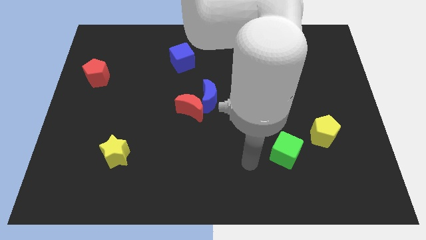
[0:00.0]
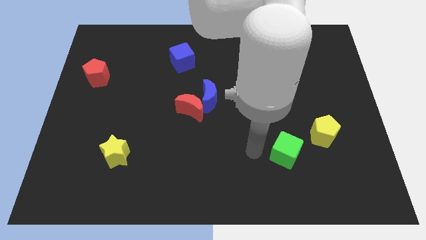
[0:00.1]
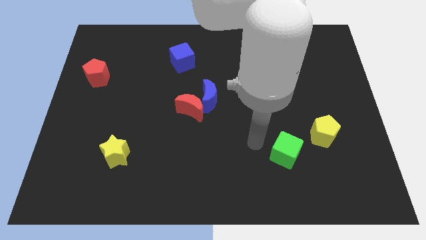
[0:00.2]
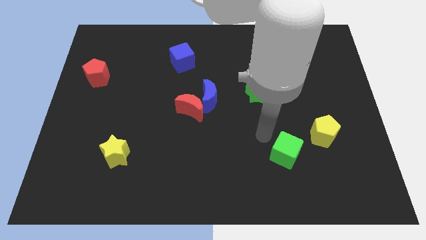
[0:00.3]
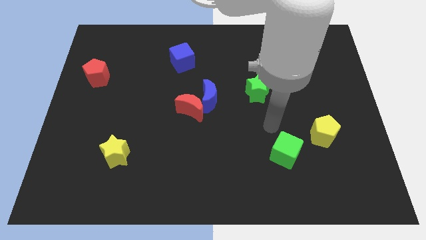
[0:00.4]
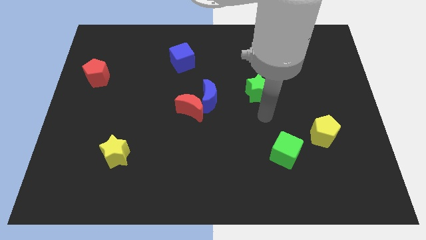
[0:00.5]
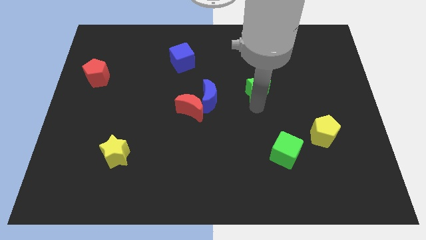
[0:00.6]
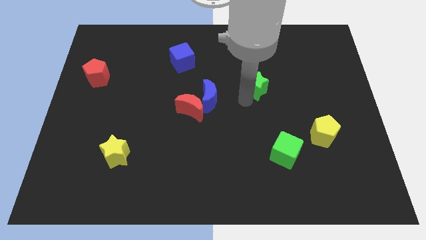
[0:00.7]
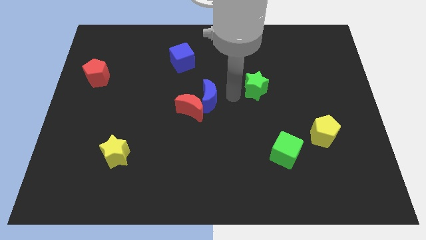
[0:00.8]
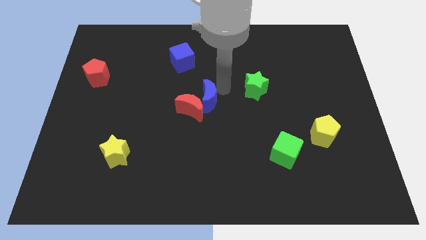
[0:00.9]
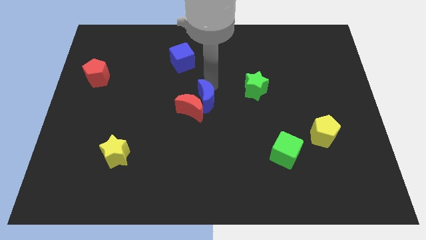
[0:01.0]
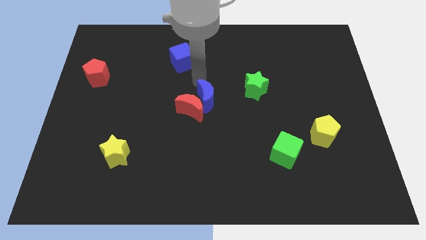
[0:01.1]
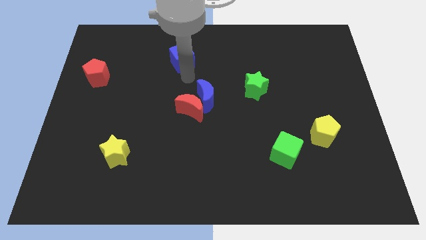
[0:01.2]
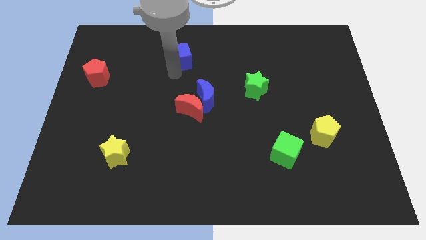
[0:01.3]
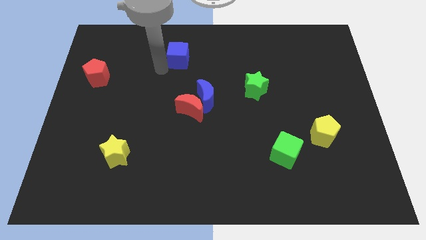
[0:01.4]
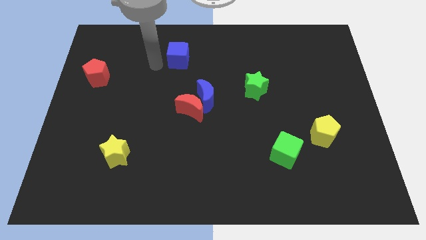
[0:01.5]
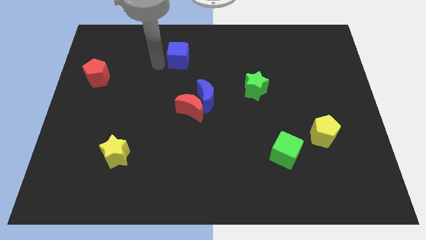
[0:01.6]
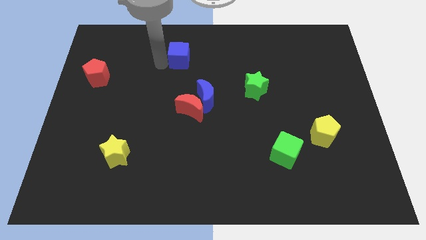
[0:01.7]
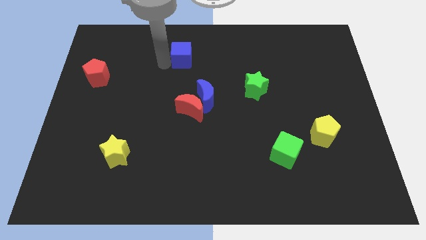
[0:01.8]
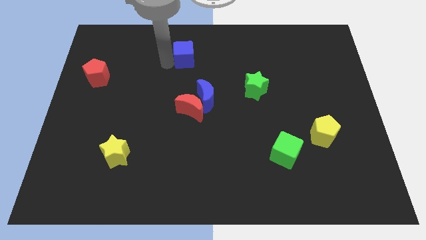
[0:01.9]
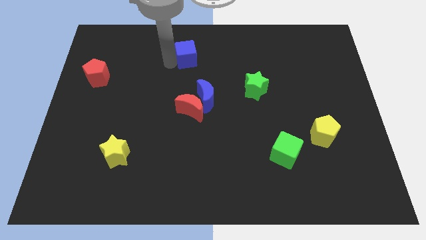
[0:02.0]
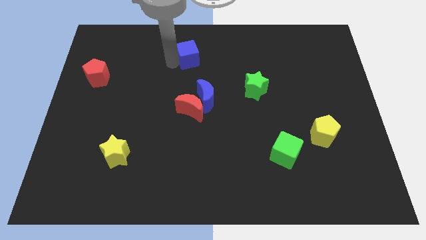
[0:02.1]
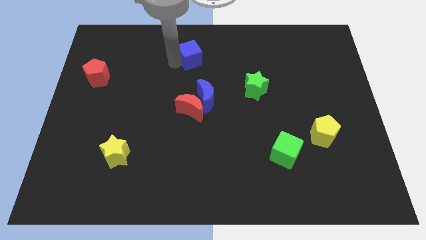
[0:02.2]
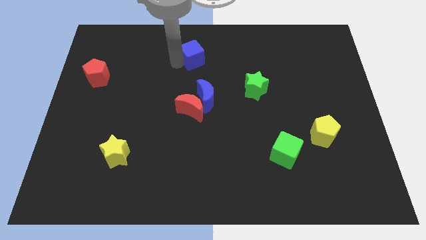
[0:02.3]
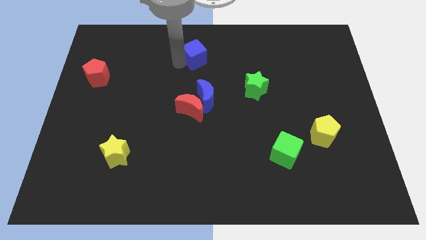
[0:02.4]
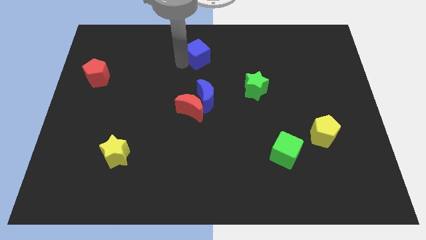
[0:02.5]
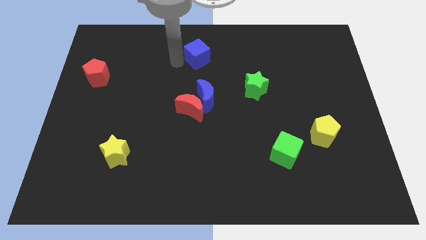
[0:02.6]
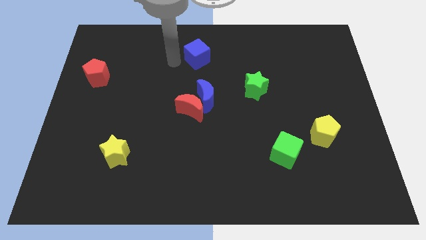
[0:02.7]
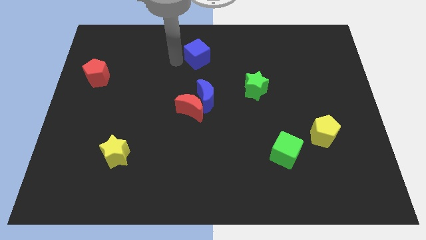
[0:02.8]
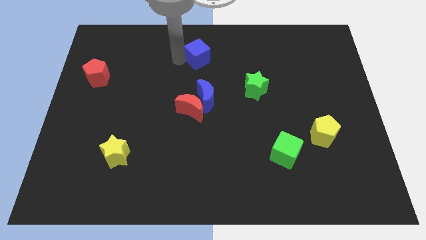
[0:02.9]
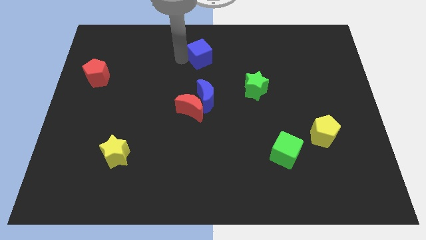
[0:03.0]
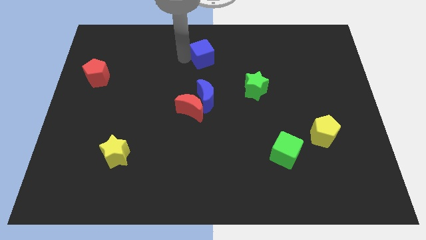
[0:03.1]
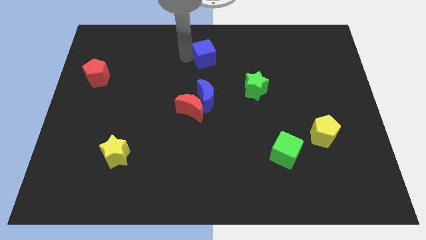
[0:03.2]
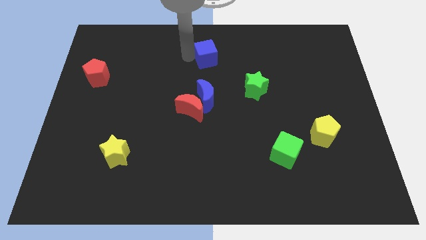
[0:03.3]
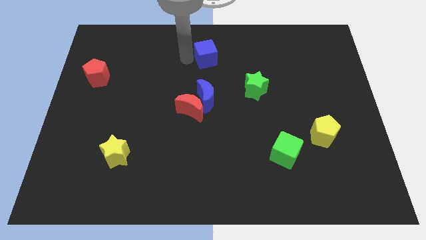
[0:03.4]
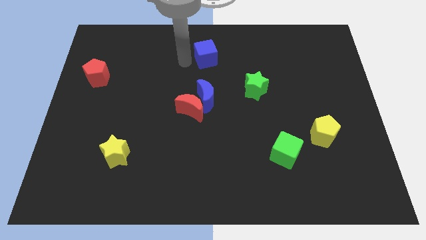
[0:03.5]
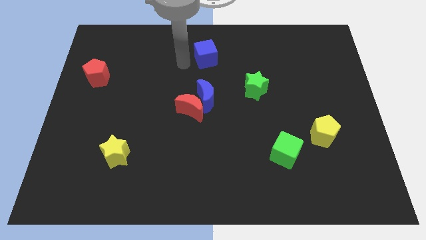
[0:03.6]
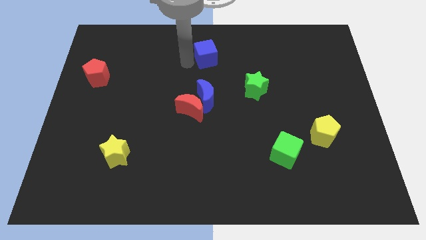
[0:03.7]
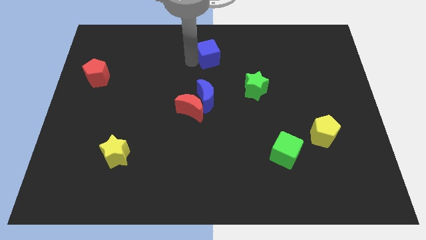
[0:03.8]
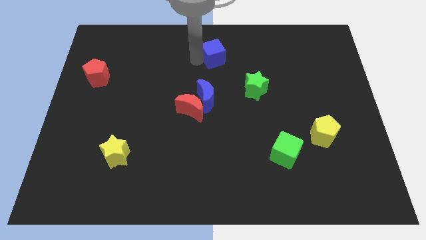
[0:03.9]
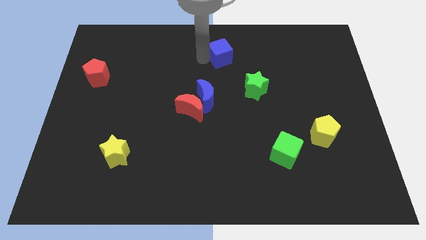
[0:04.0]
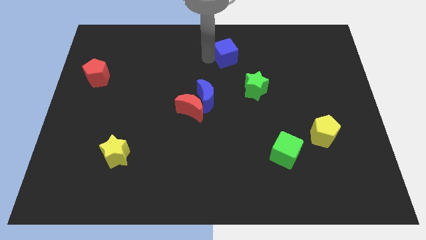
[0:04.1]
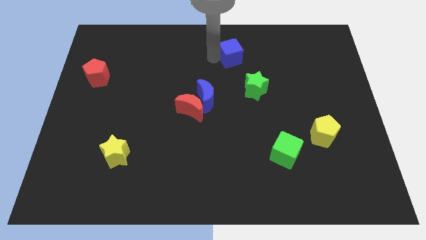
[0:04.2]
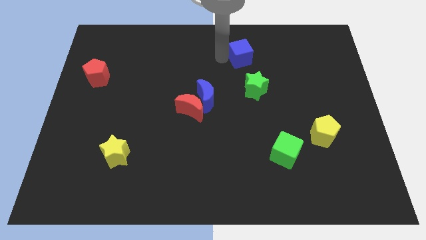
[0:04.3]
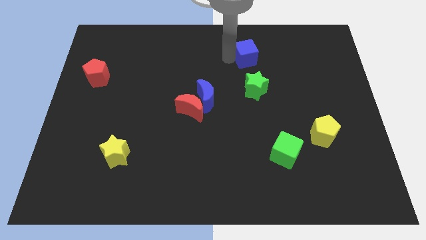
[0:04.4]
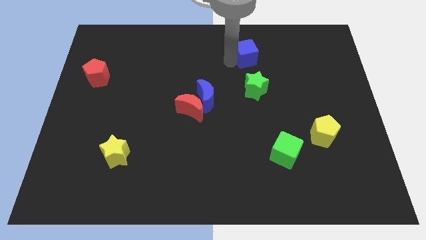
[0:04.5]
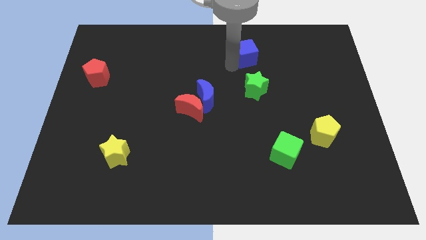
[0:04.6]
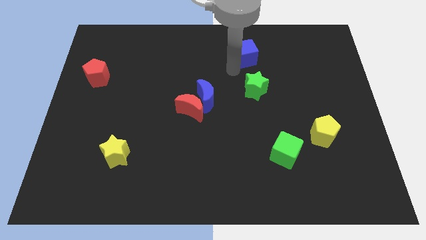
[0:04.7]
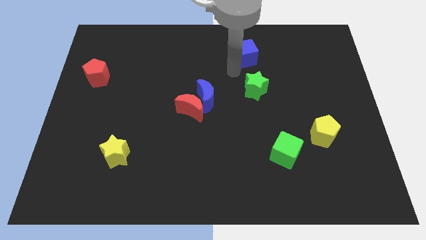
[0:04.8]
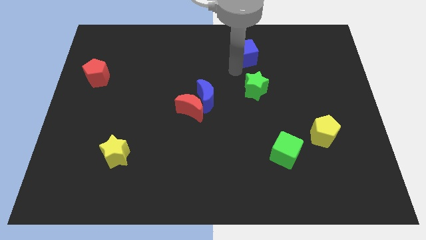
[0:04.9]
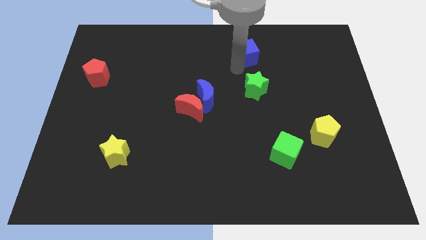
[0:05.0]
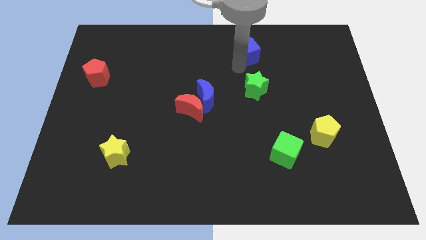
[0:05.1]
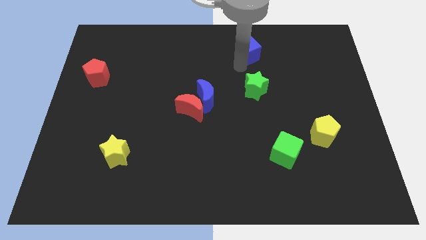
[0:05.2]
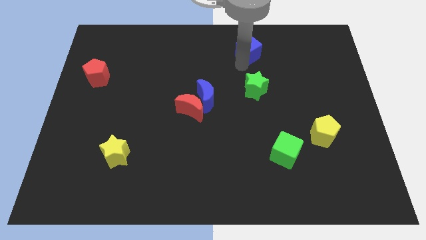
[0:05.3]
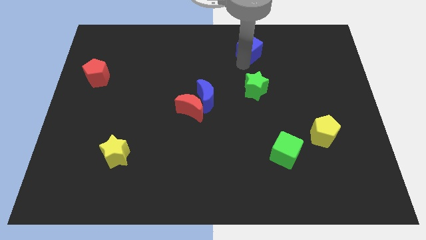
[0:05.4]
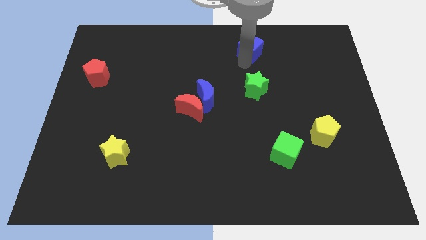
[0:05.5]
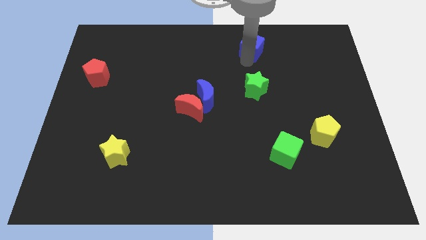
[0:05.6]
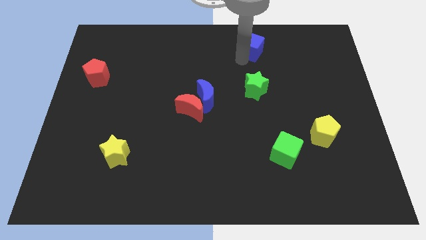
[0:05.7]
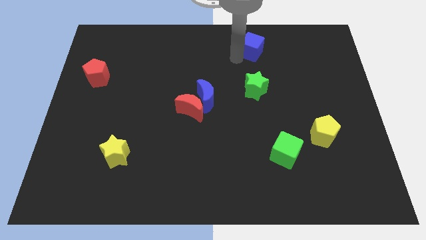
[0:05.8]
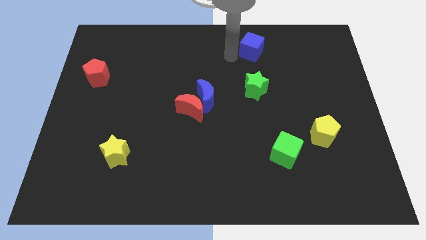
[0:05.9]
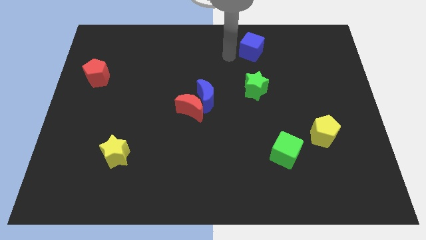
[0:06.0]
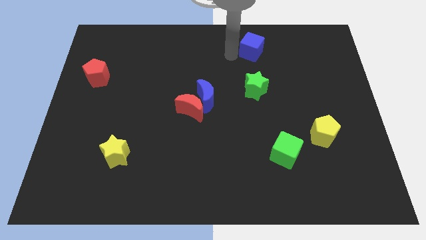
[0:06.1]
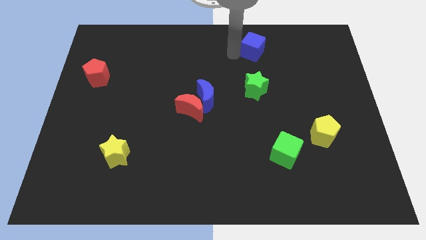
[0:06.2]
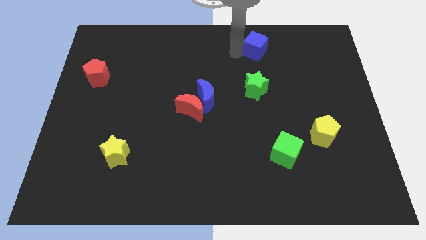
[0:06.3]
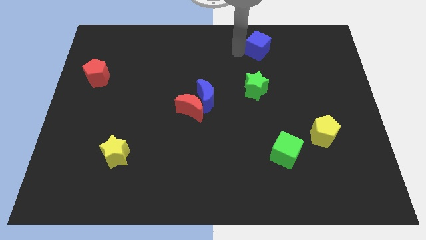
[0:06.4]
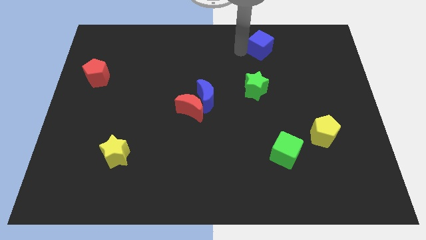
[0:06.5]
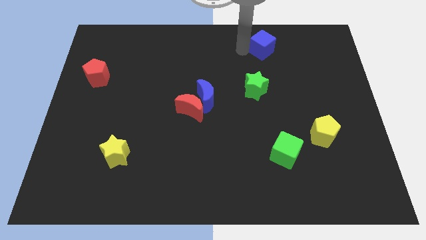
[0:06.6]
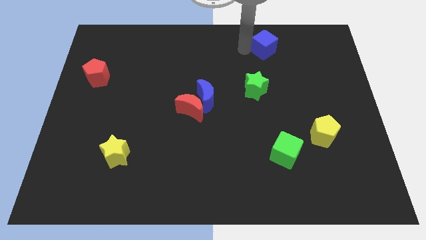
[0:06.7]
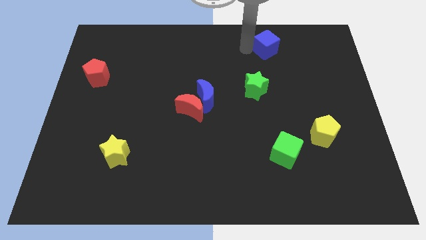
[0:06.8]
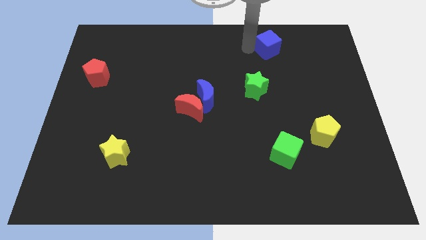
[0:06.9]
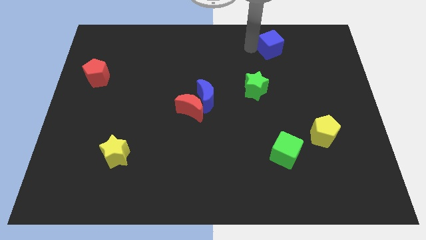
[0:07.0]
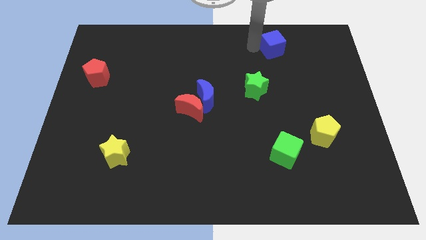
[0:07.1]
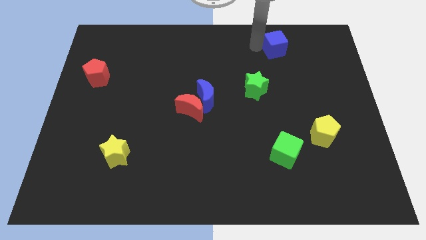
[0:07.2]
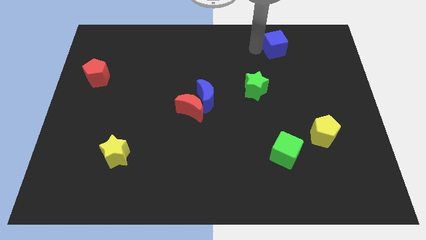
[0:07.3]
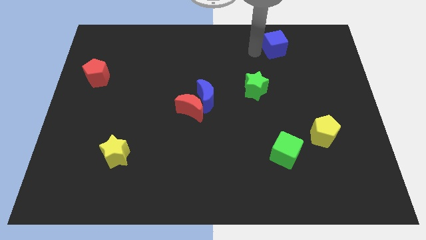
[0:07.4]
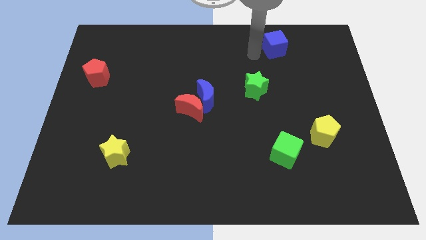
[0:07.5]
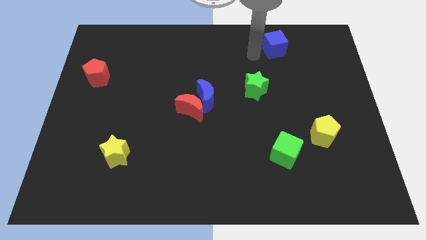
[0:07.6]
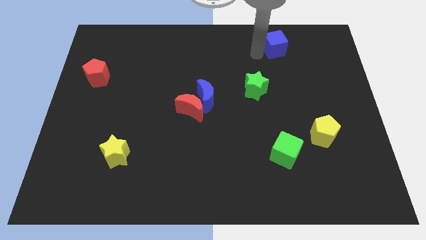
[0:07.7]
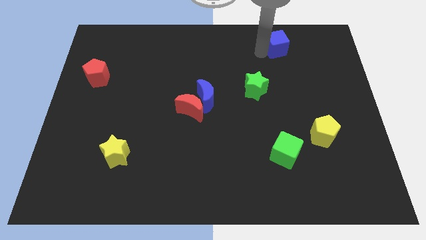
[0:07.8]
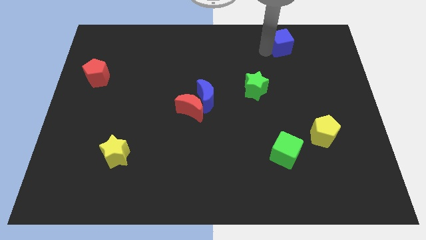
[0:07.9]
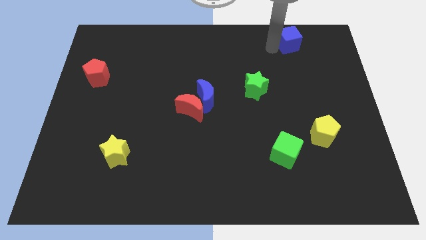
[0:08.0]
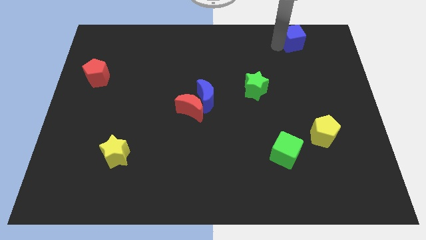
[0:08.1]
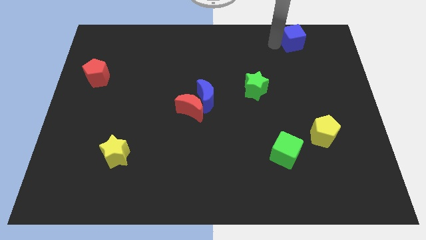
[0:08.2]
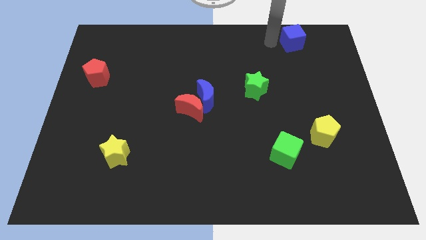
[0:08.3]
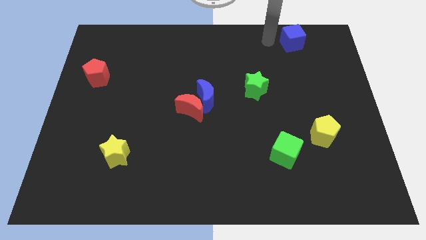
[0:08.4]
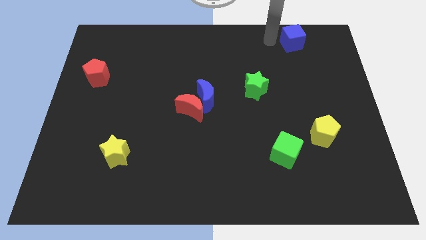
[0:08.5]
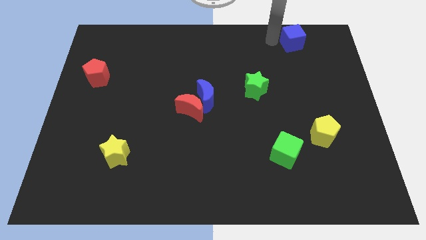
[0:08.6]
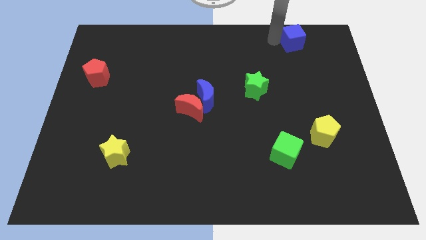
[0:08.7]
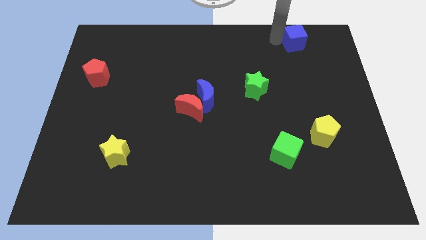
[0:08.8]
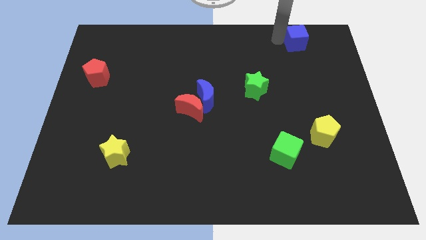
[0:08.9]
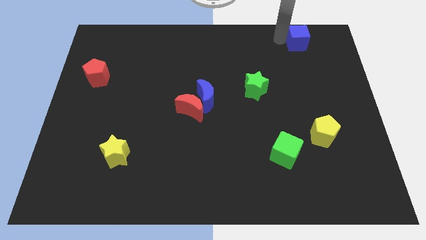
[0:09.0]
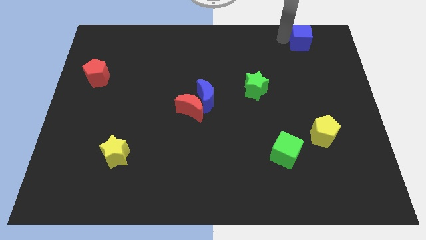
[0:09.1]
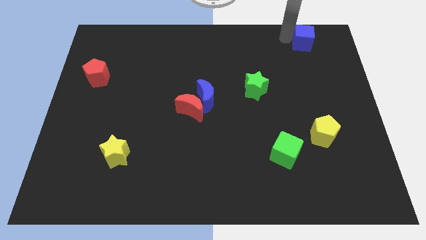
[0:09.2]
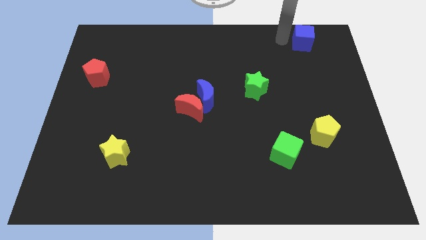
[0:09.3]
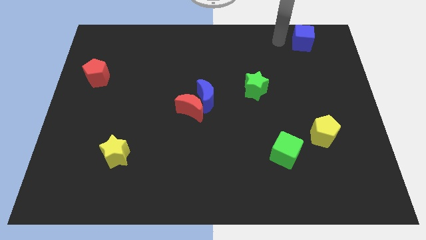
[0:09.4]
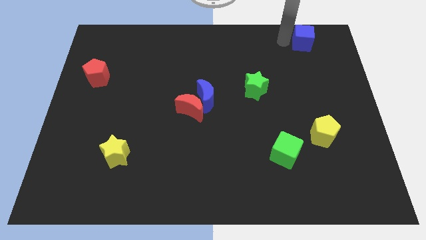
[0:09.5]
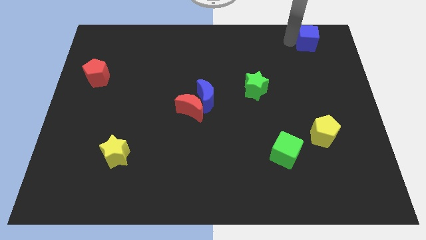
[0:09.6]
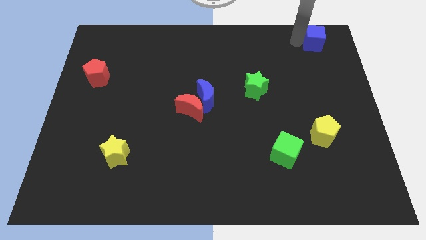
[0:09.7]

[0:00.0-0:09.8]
push the blue cube to the top right corner
